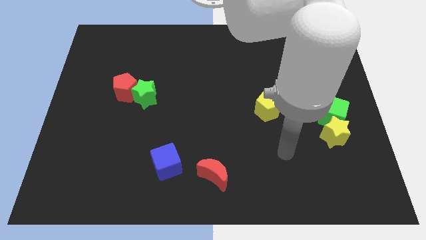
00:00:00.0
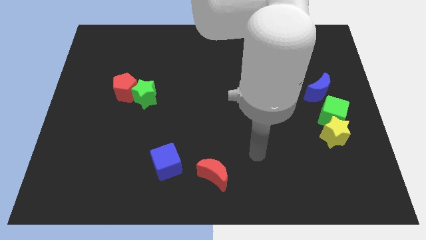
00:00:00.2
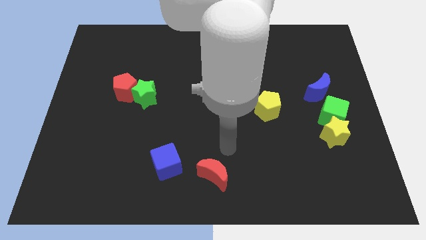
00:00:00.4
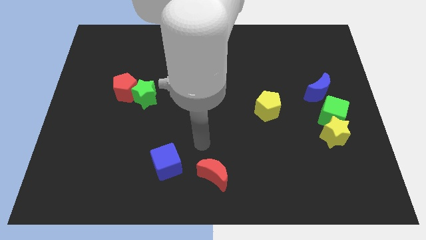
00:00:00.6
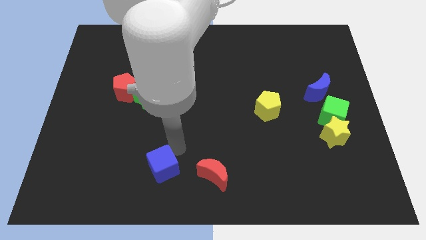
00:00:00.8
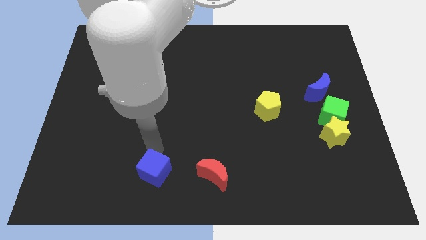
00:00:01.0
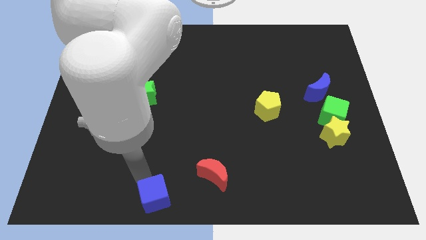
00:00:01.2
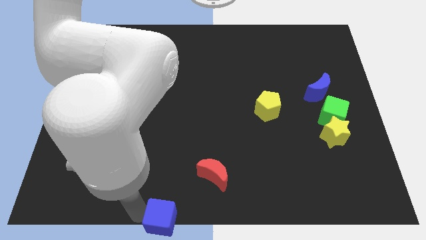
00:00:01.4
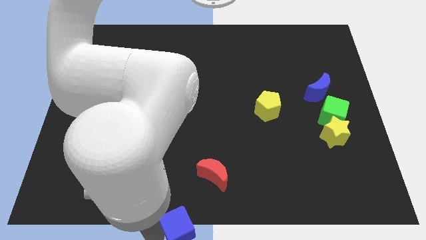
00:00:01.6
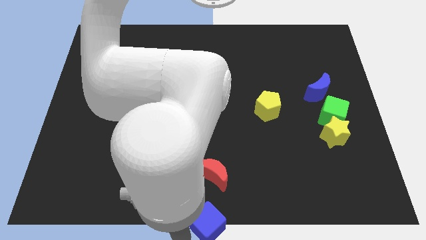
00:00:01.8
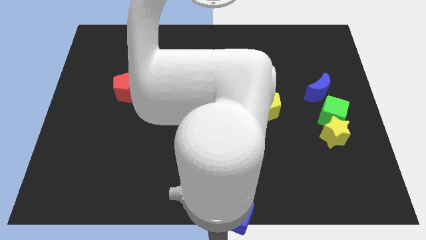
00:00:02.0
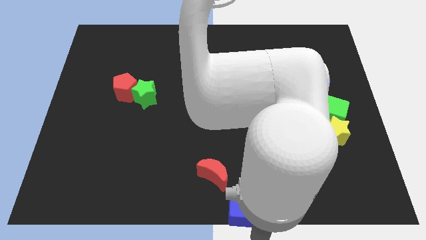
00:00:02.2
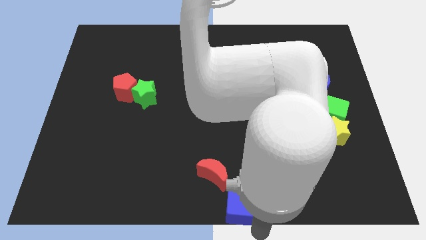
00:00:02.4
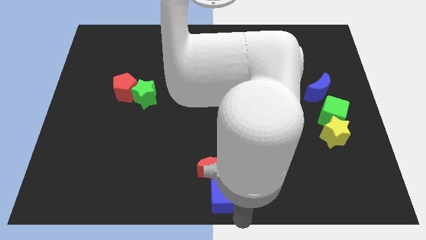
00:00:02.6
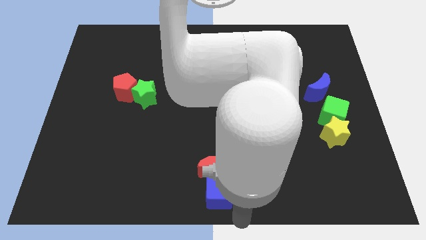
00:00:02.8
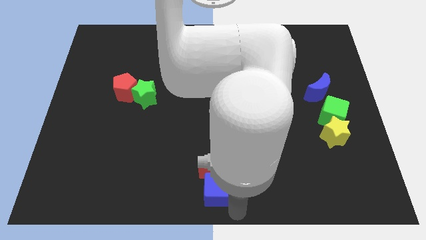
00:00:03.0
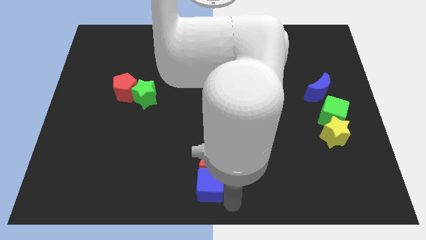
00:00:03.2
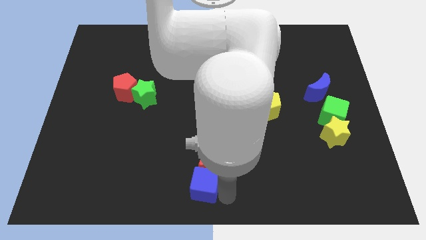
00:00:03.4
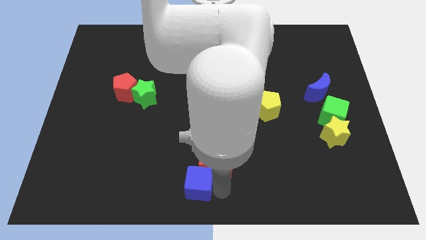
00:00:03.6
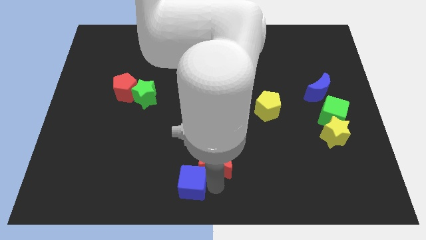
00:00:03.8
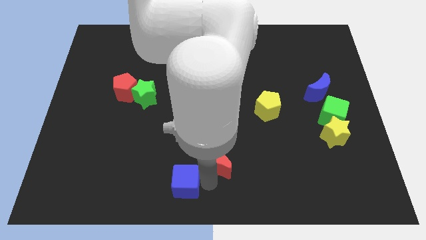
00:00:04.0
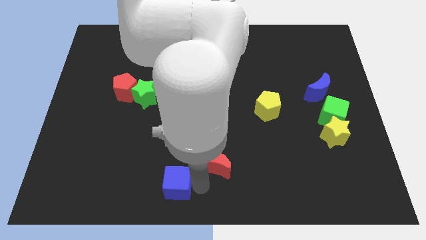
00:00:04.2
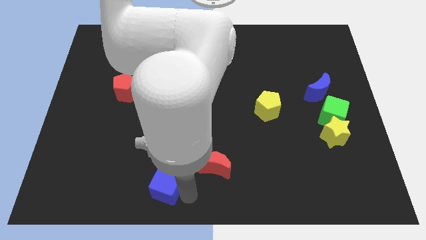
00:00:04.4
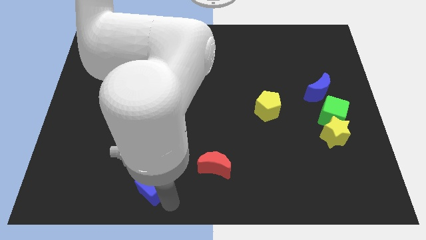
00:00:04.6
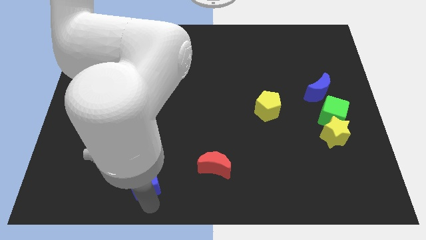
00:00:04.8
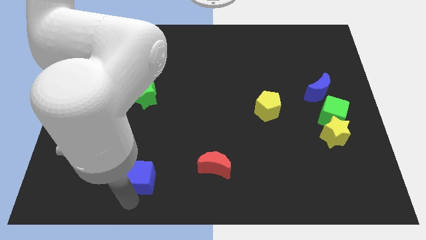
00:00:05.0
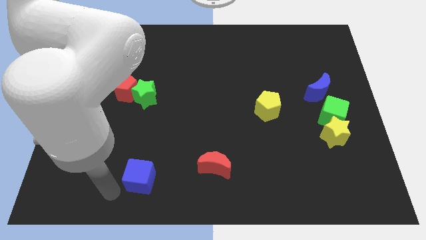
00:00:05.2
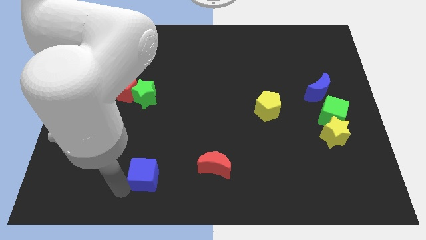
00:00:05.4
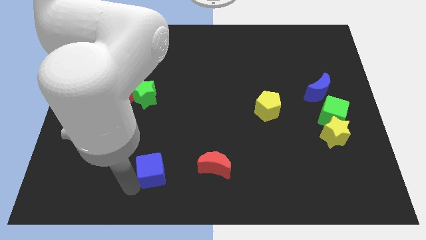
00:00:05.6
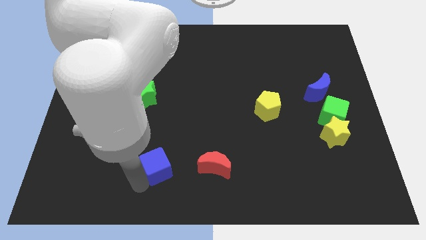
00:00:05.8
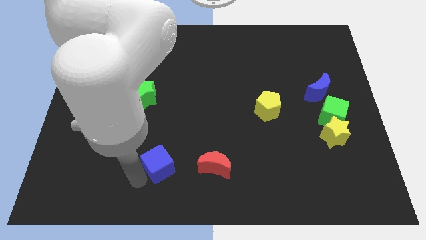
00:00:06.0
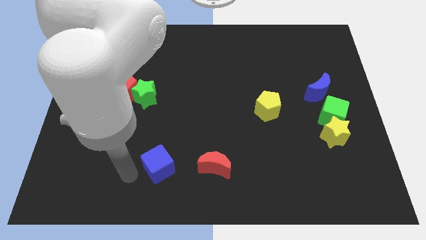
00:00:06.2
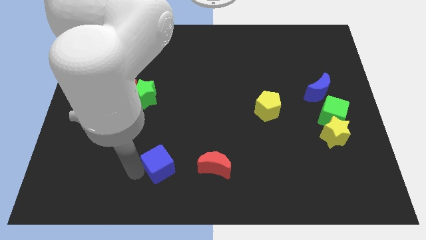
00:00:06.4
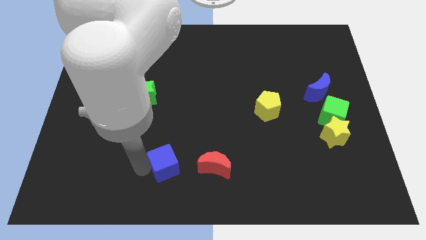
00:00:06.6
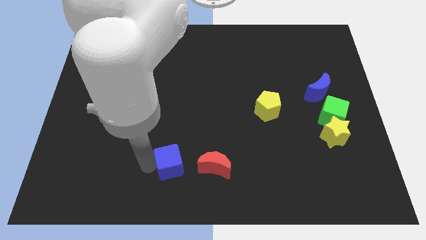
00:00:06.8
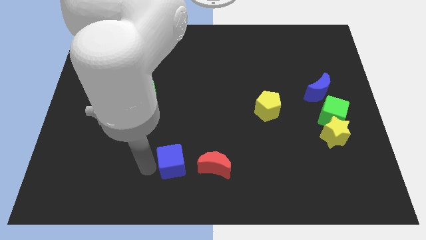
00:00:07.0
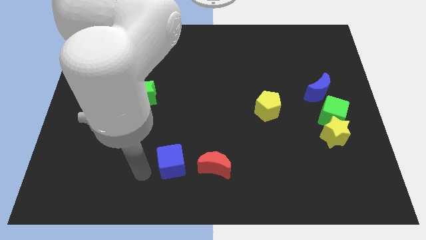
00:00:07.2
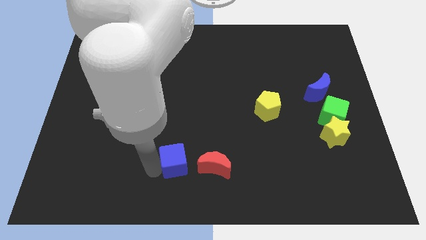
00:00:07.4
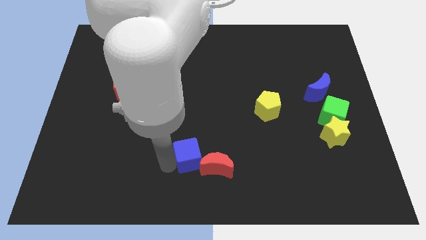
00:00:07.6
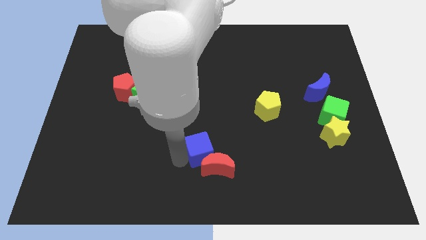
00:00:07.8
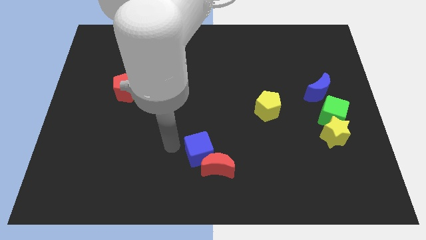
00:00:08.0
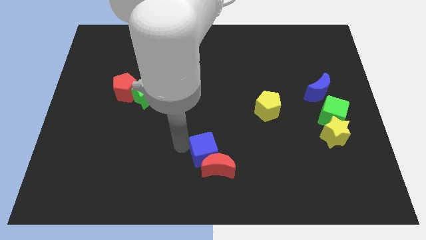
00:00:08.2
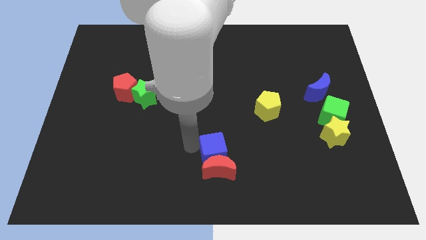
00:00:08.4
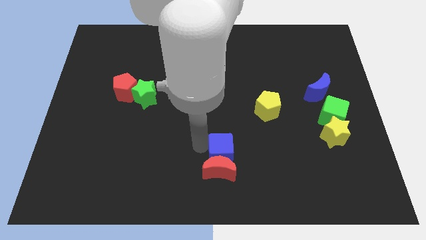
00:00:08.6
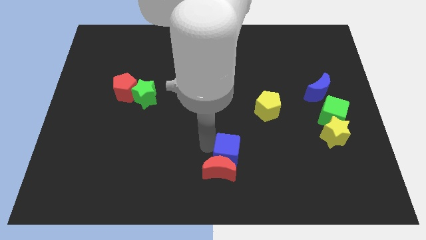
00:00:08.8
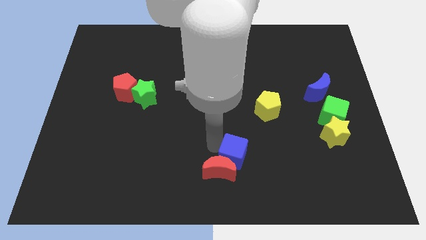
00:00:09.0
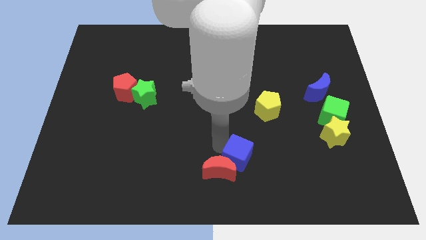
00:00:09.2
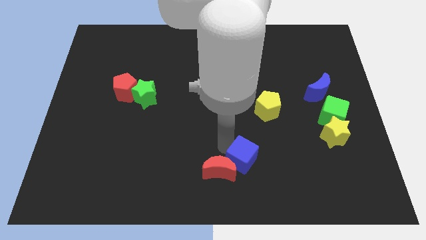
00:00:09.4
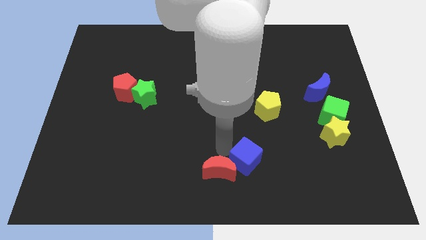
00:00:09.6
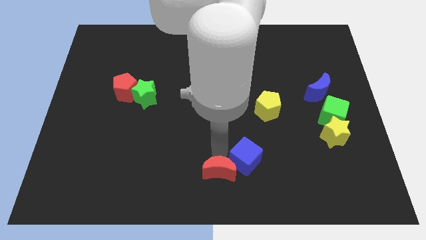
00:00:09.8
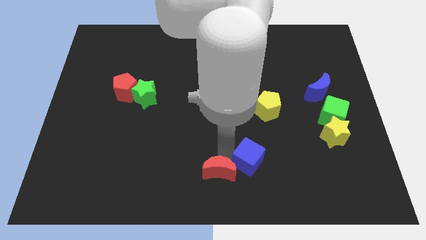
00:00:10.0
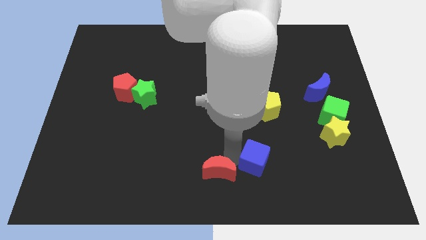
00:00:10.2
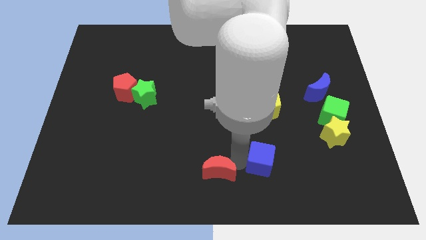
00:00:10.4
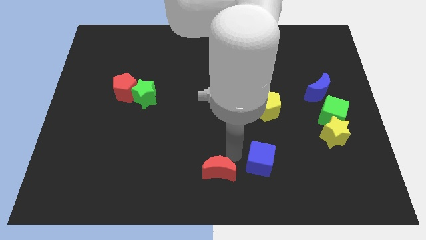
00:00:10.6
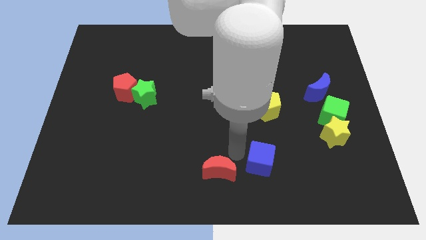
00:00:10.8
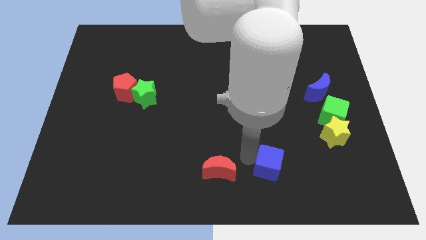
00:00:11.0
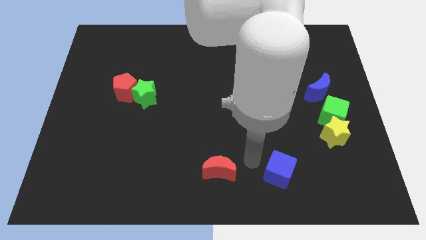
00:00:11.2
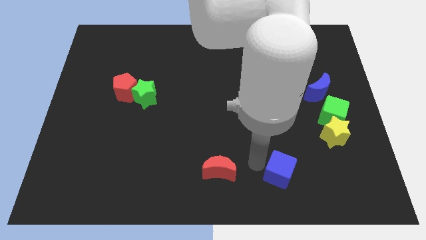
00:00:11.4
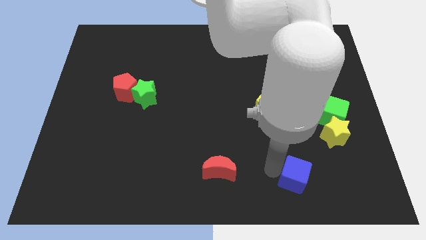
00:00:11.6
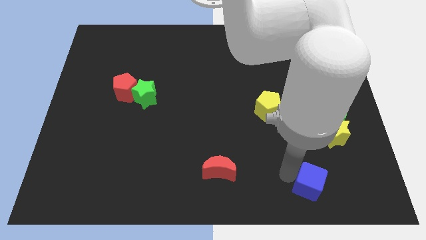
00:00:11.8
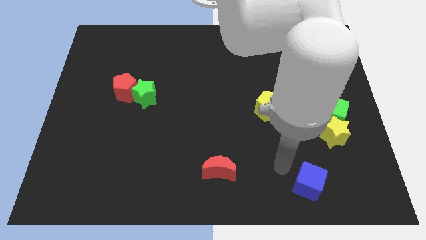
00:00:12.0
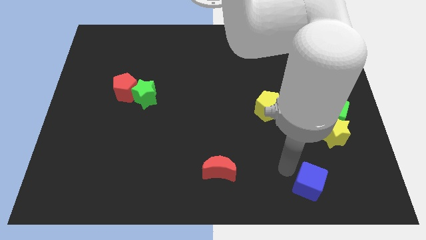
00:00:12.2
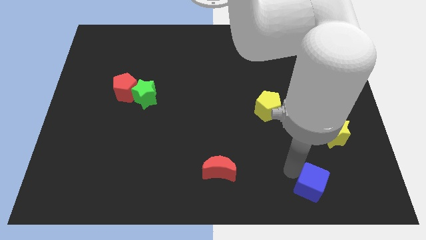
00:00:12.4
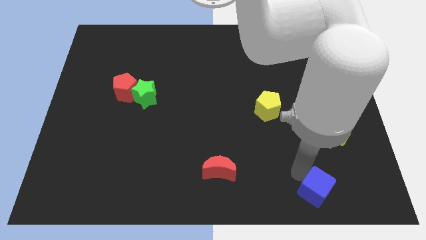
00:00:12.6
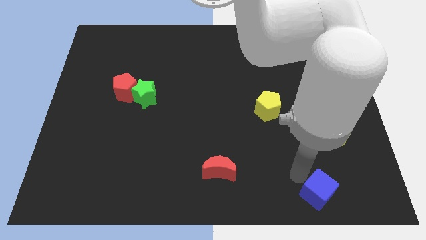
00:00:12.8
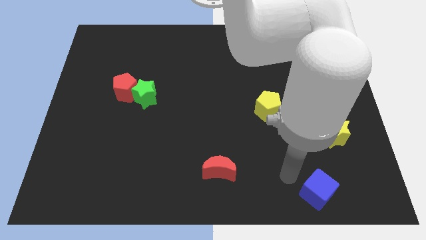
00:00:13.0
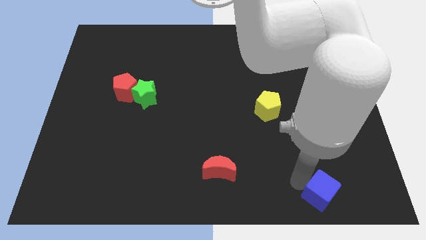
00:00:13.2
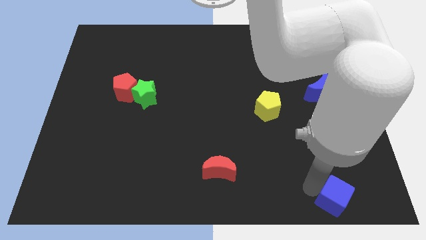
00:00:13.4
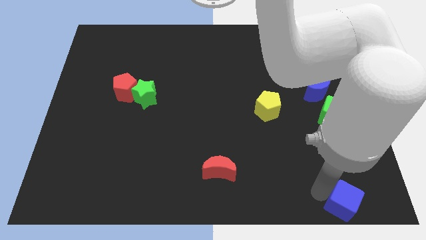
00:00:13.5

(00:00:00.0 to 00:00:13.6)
move the blue cube to the bottom right corner
